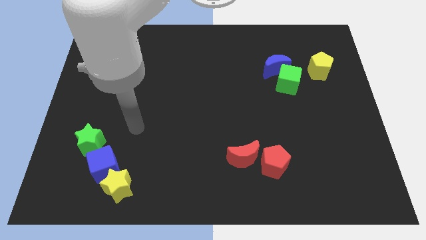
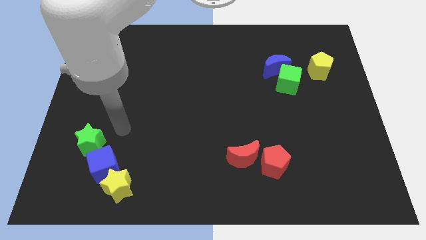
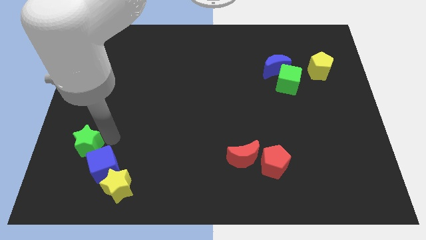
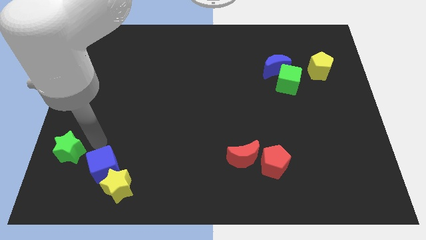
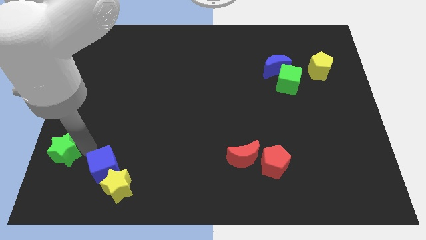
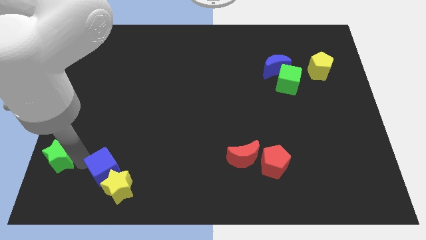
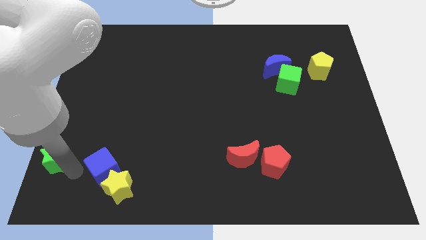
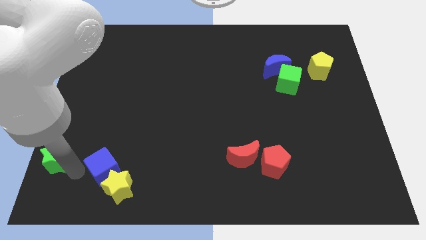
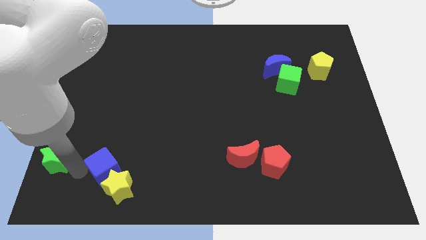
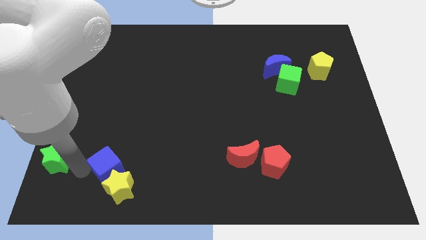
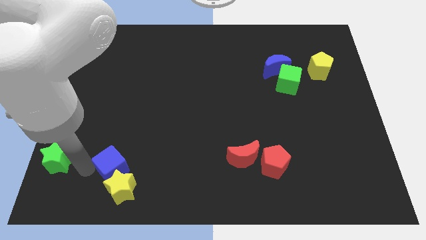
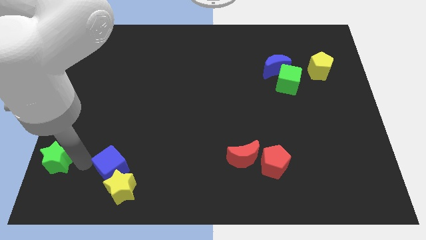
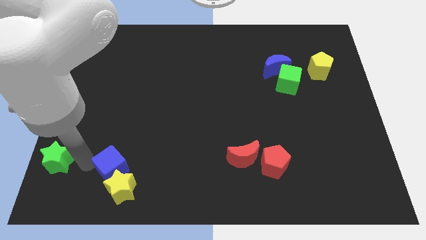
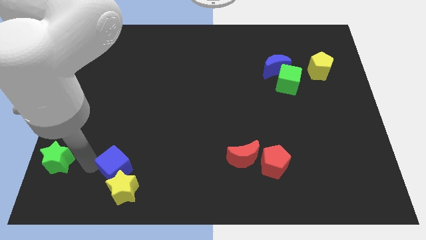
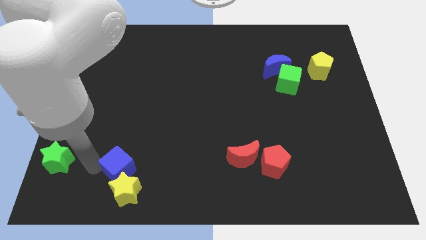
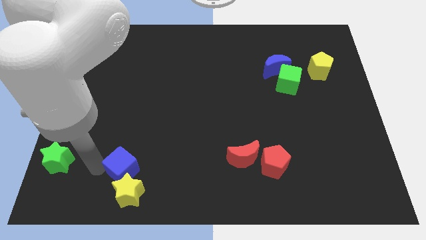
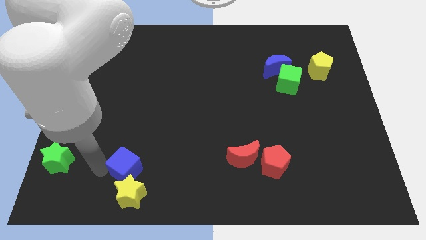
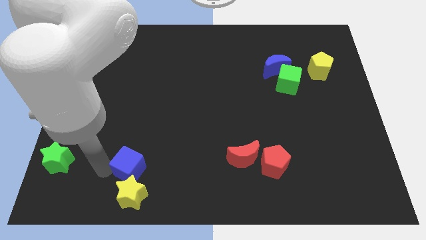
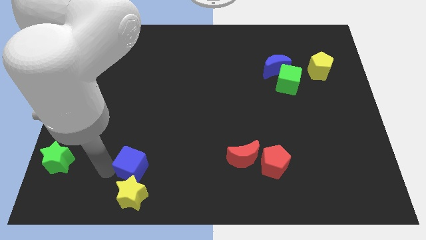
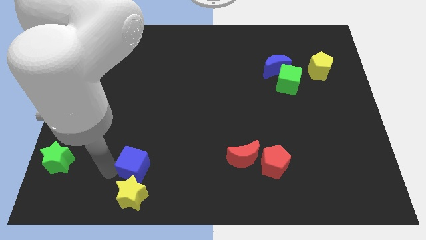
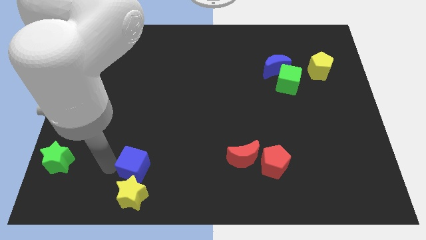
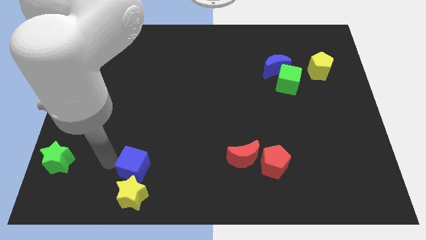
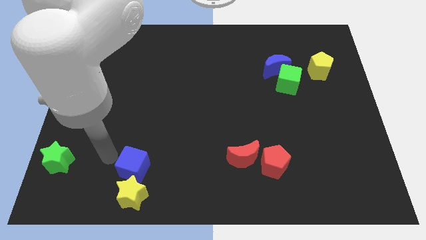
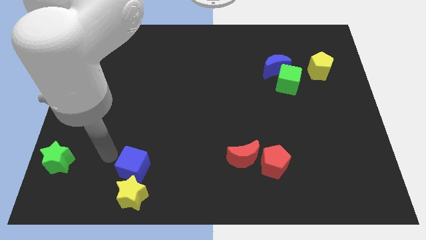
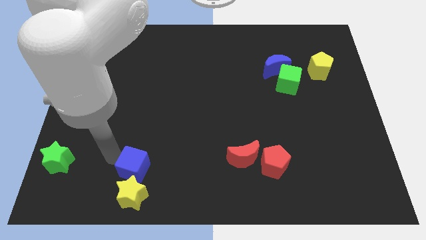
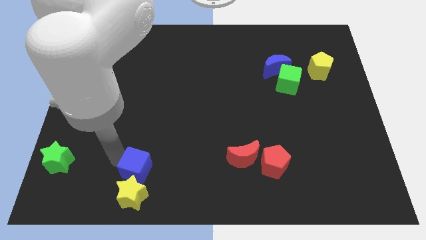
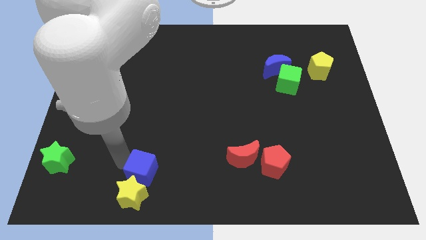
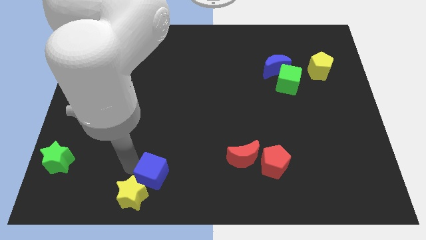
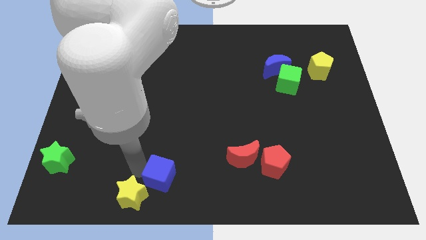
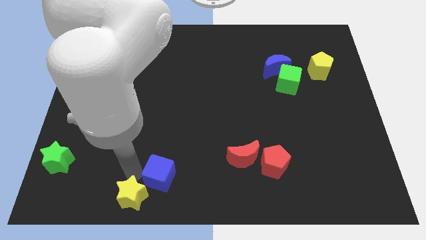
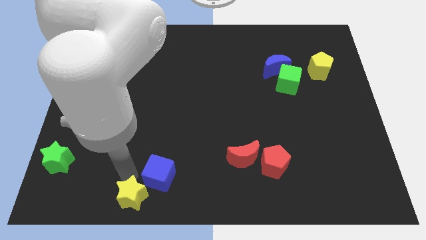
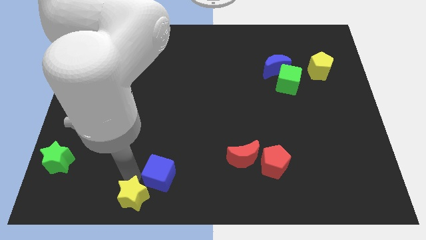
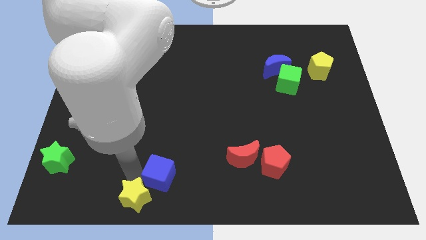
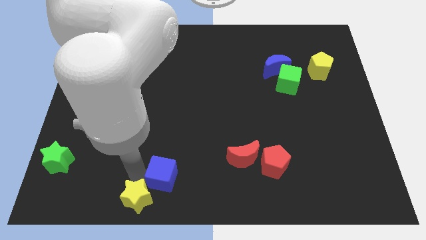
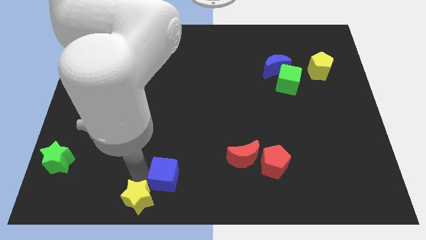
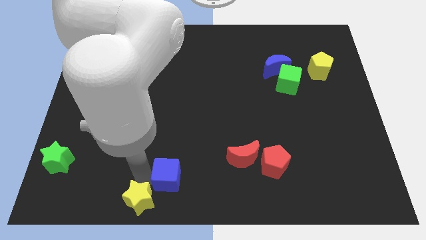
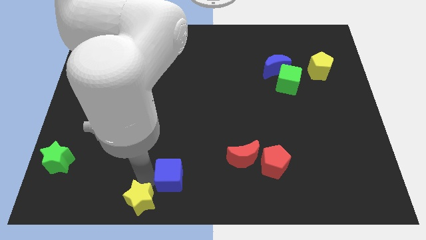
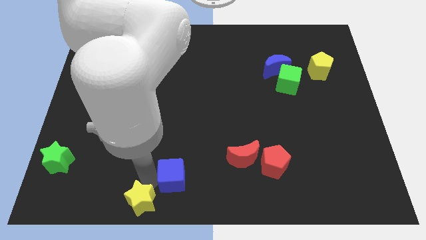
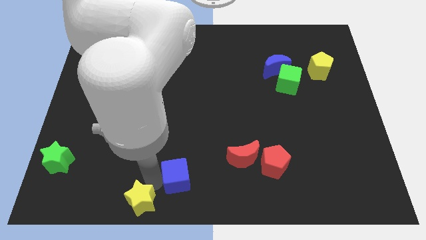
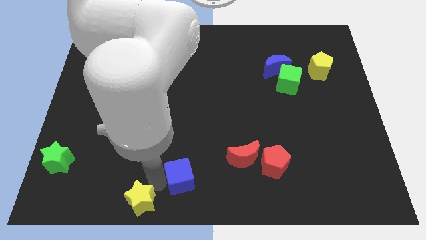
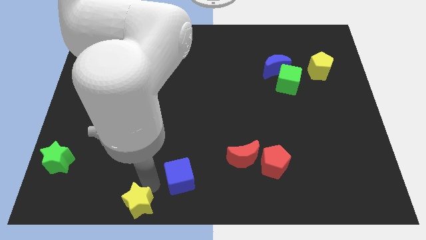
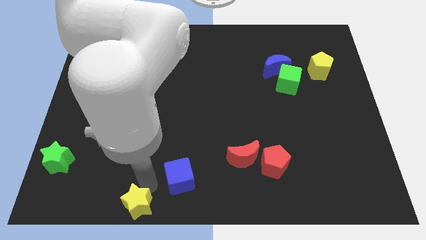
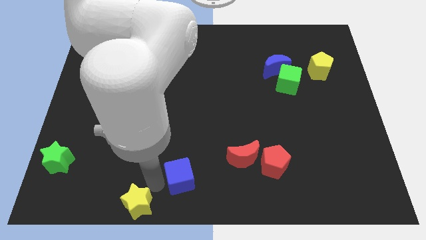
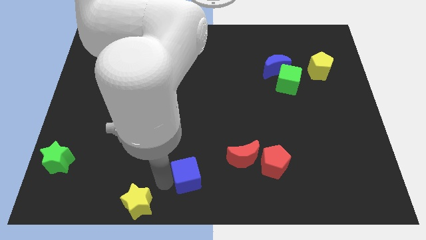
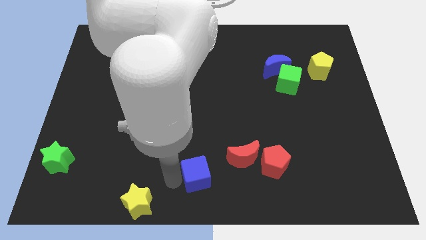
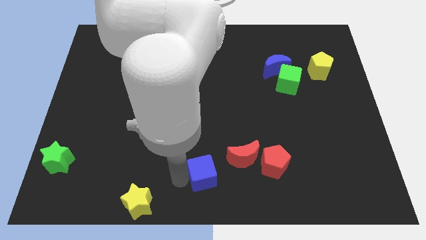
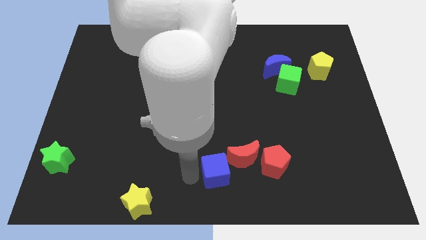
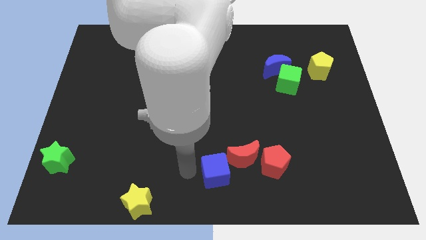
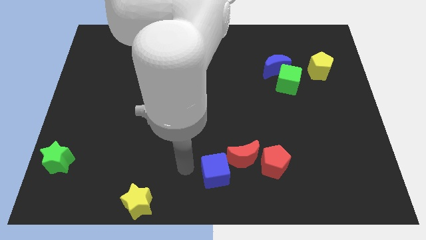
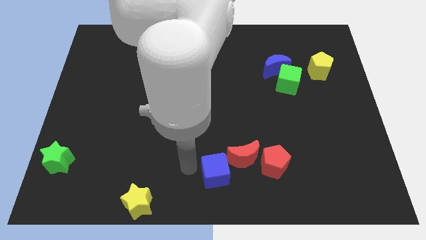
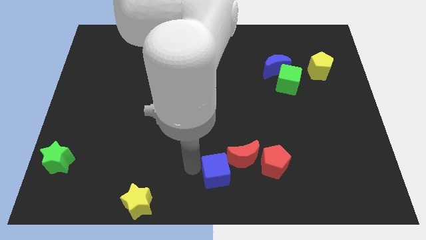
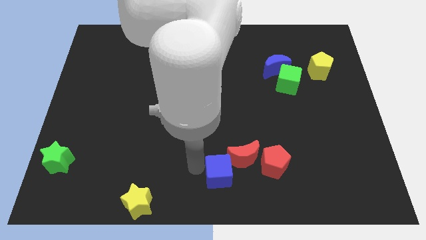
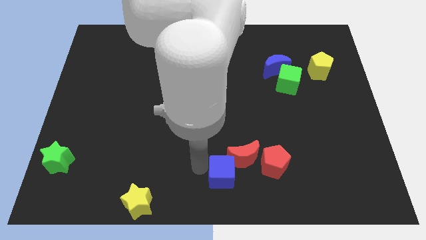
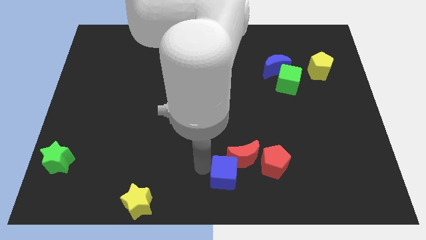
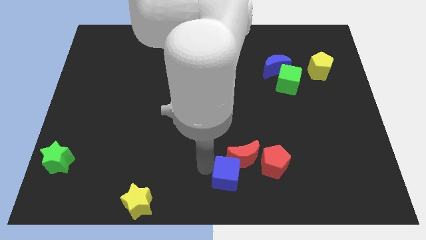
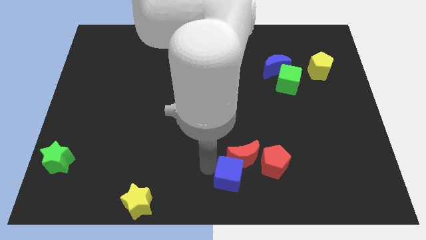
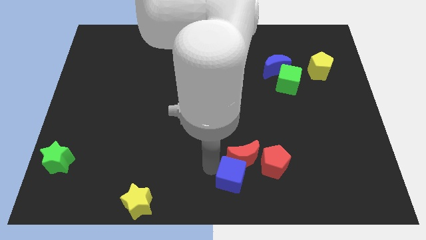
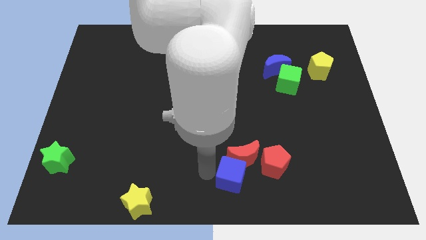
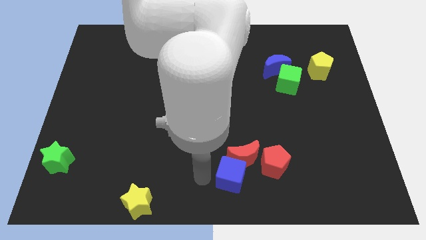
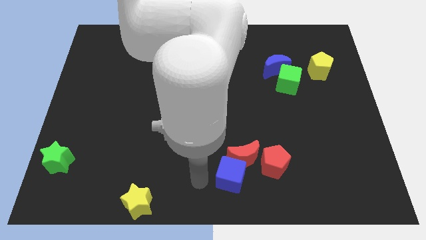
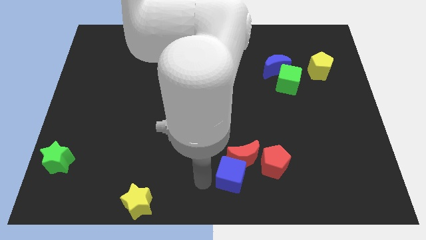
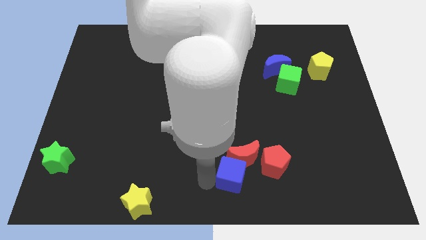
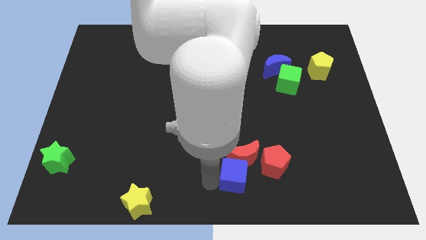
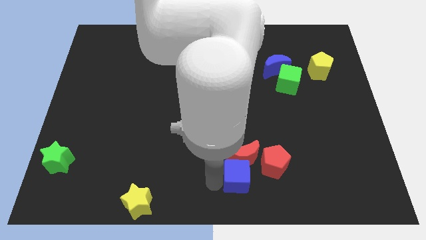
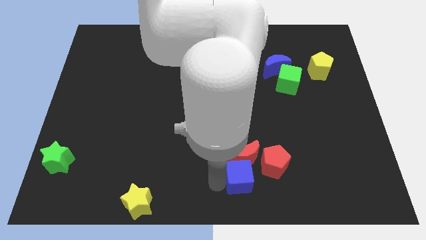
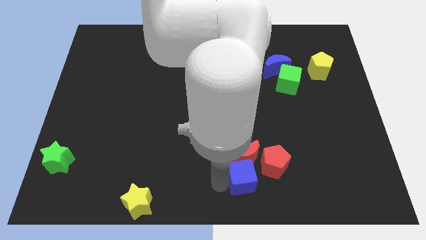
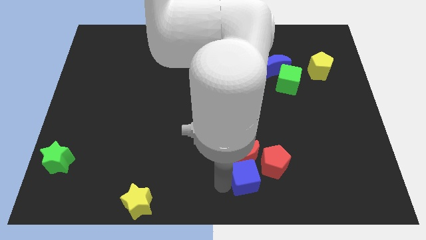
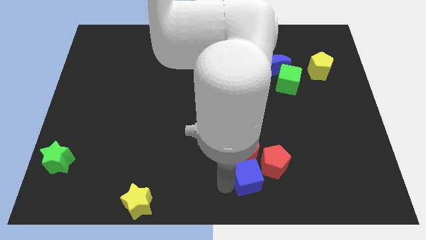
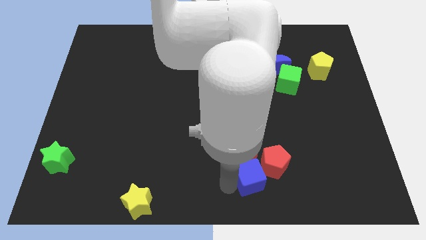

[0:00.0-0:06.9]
slide the blue cube to the red pentagon
